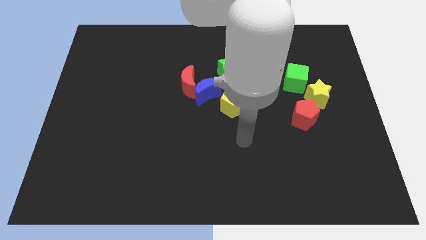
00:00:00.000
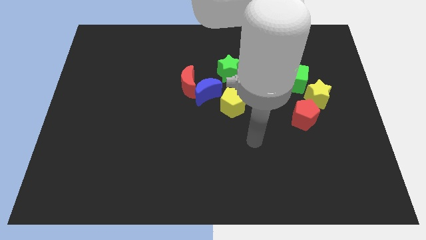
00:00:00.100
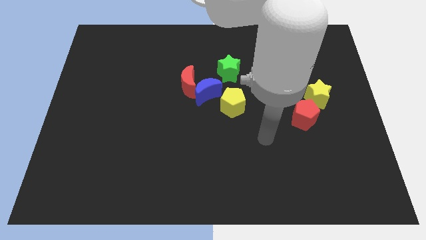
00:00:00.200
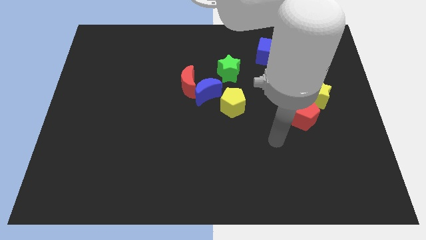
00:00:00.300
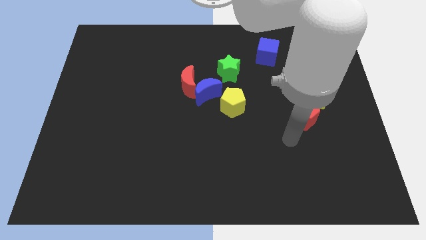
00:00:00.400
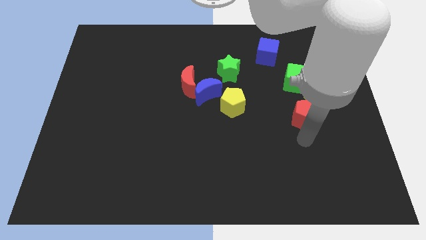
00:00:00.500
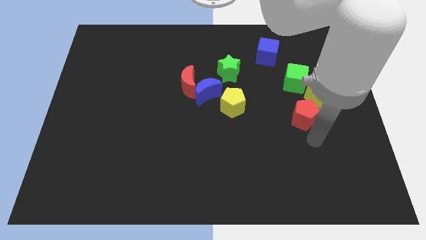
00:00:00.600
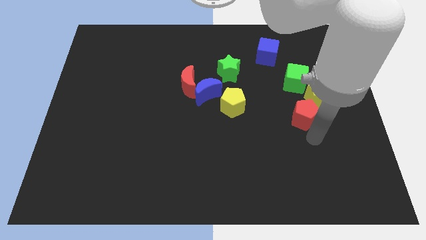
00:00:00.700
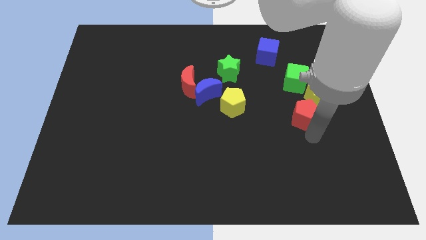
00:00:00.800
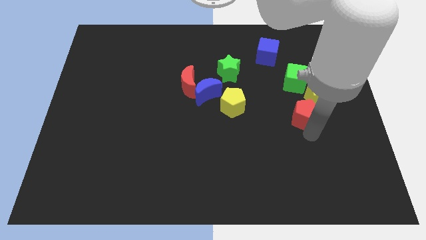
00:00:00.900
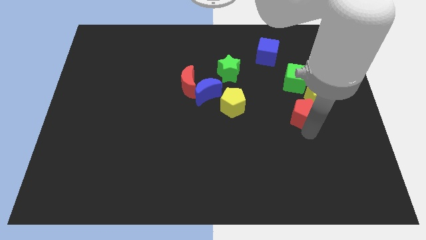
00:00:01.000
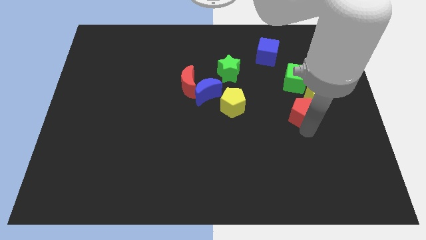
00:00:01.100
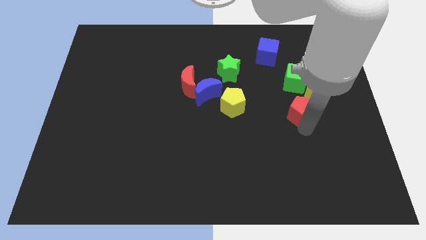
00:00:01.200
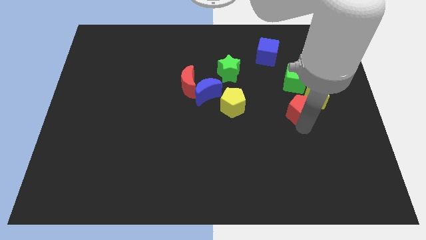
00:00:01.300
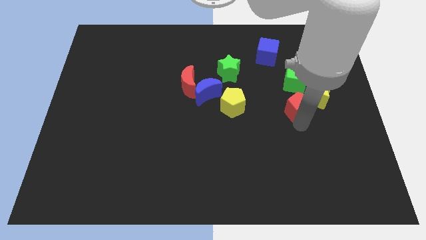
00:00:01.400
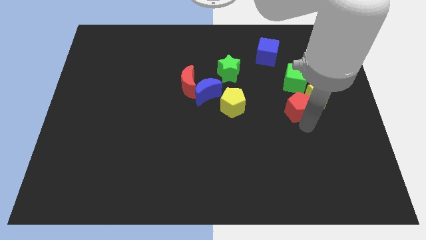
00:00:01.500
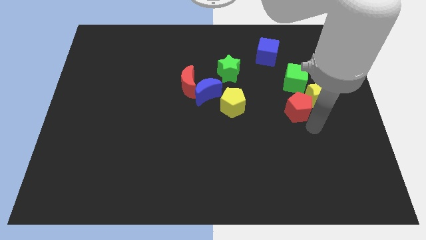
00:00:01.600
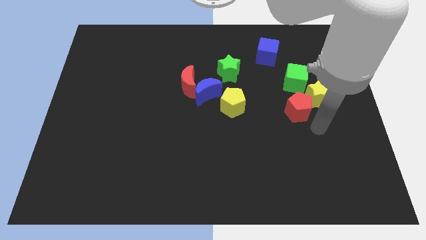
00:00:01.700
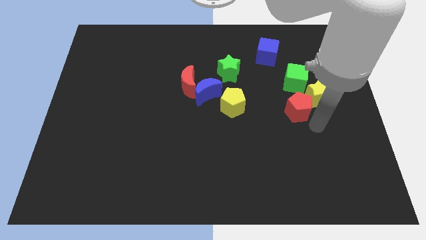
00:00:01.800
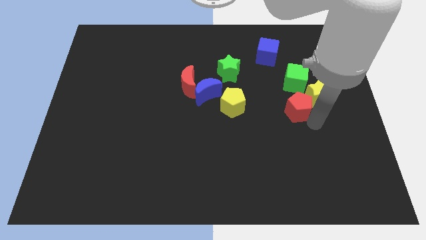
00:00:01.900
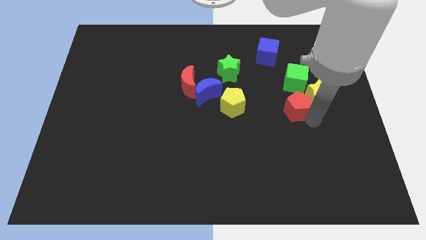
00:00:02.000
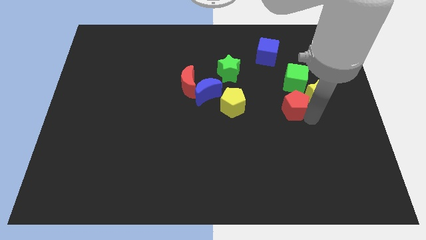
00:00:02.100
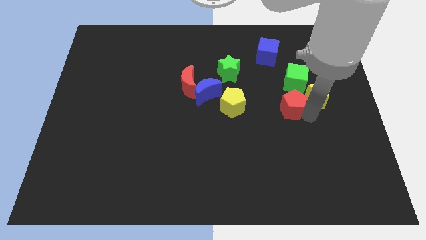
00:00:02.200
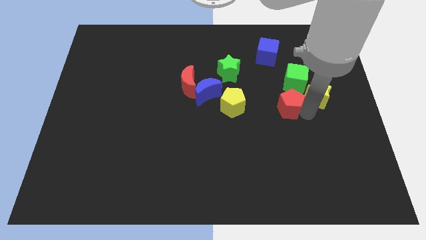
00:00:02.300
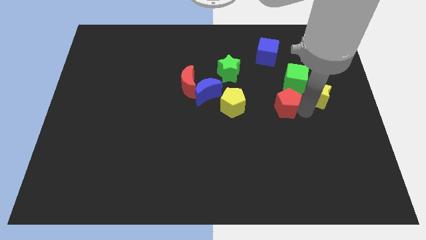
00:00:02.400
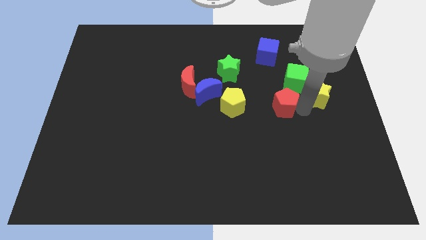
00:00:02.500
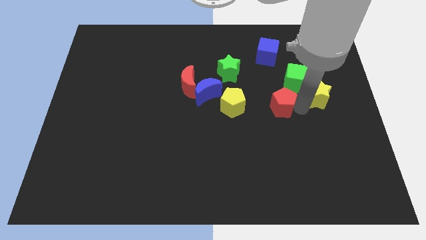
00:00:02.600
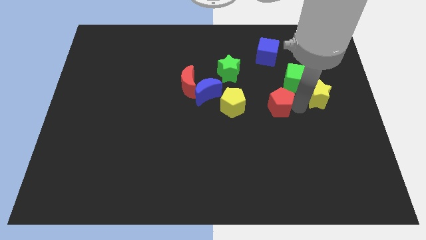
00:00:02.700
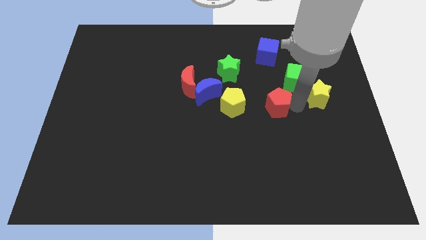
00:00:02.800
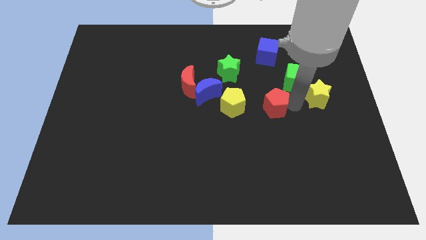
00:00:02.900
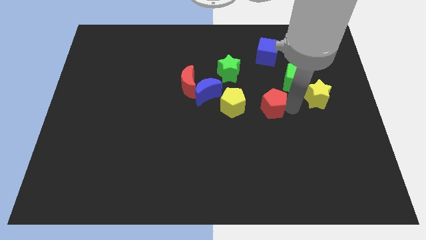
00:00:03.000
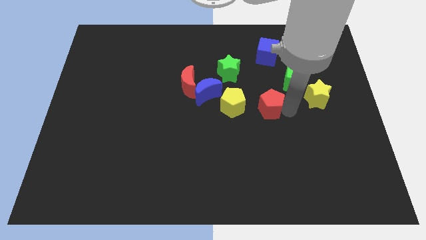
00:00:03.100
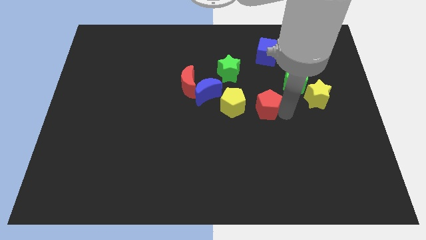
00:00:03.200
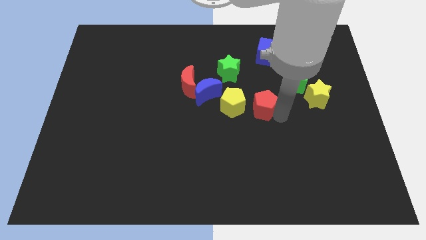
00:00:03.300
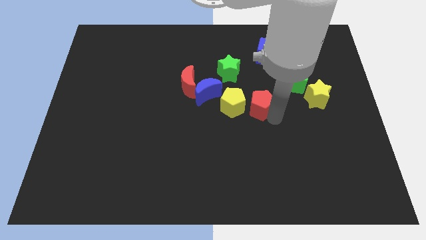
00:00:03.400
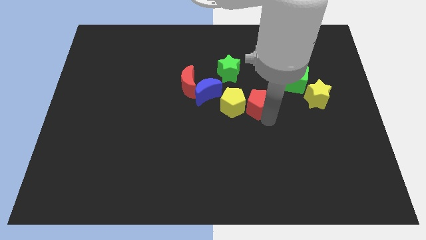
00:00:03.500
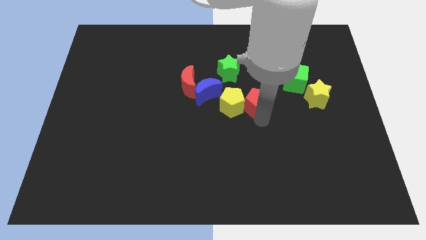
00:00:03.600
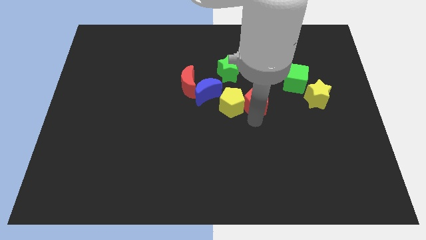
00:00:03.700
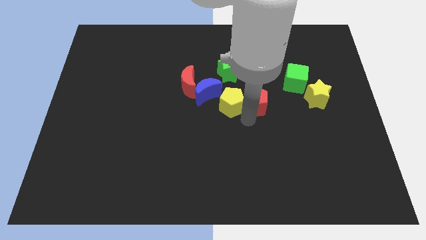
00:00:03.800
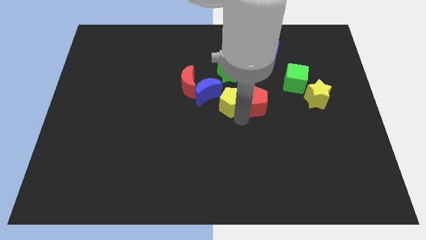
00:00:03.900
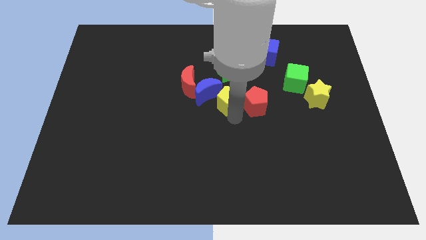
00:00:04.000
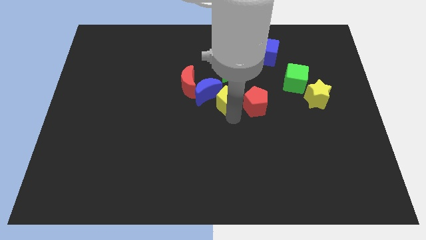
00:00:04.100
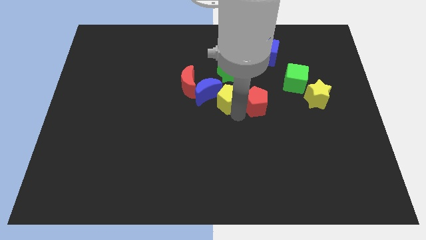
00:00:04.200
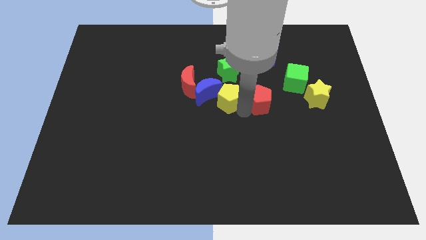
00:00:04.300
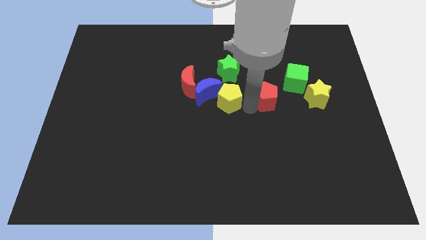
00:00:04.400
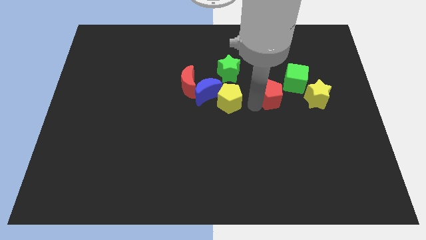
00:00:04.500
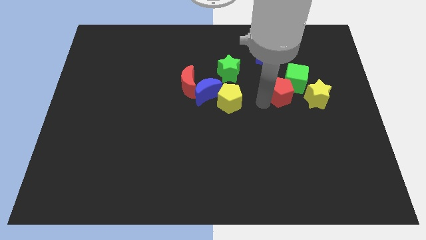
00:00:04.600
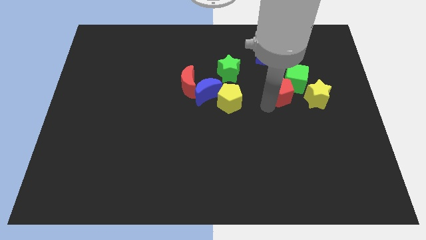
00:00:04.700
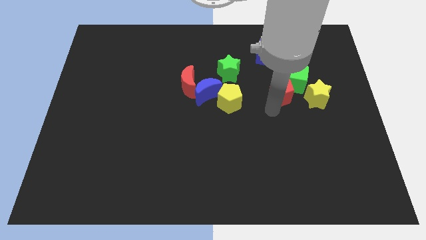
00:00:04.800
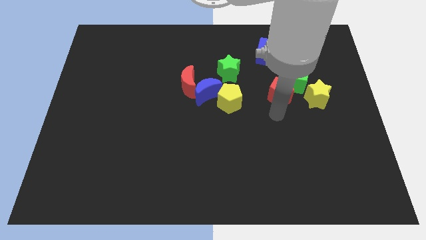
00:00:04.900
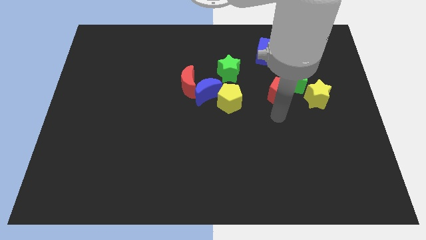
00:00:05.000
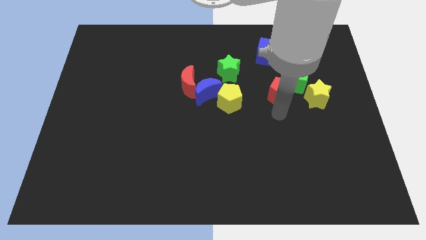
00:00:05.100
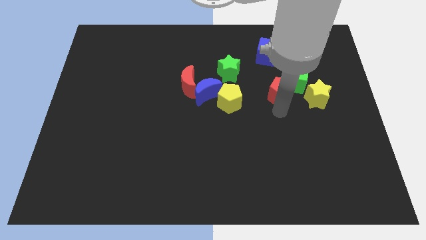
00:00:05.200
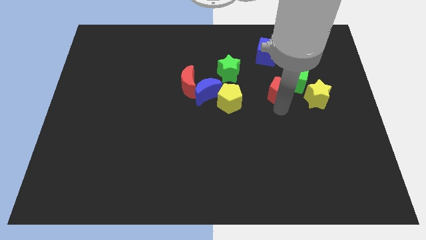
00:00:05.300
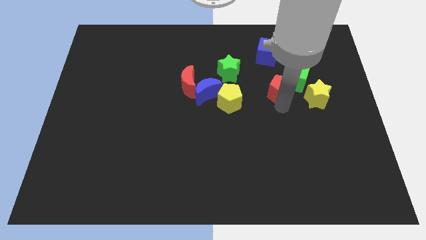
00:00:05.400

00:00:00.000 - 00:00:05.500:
slide the red pentagon up a bit

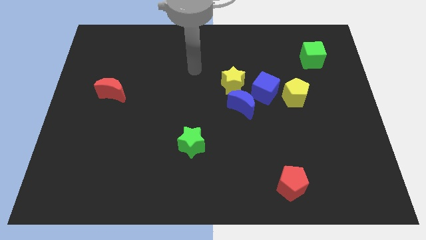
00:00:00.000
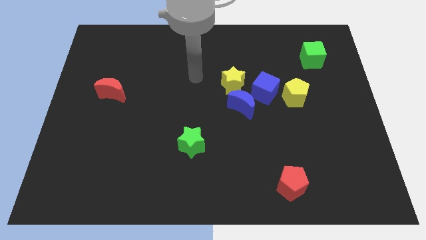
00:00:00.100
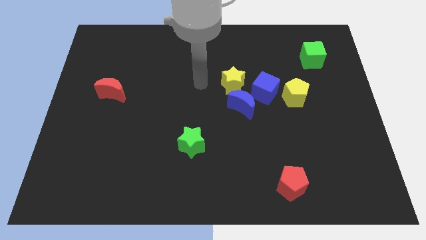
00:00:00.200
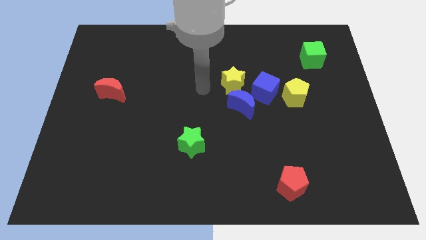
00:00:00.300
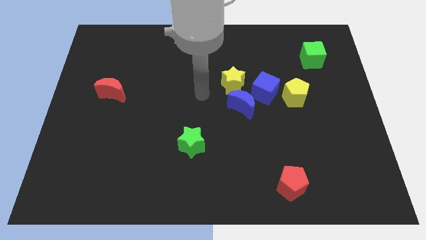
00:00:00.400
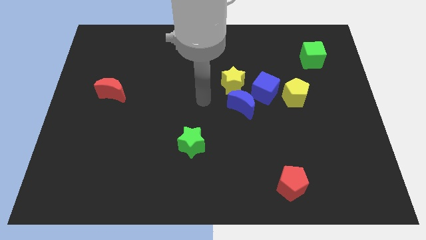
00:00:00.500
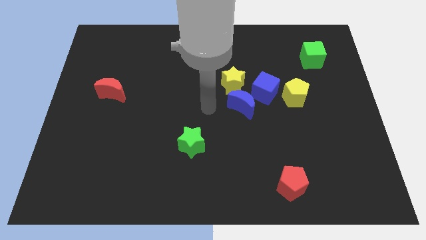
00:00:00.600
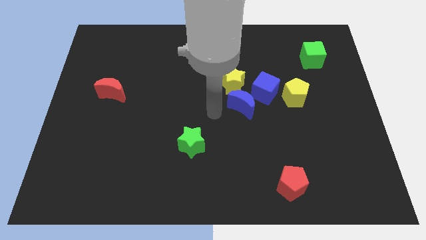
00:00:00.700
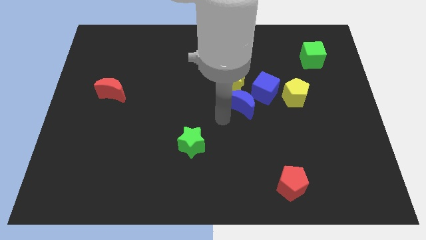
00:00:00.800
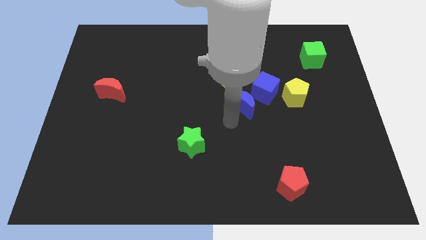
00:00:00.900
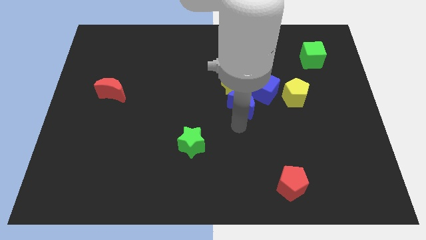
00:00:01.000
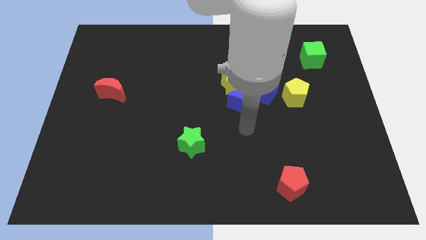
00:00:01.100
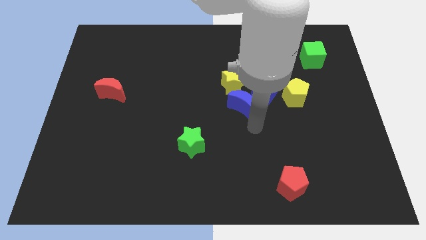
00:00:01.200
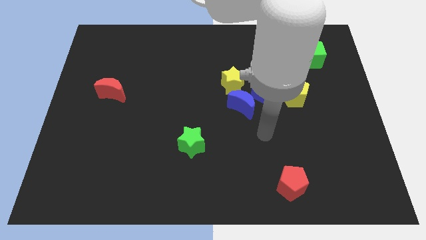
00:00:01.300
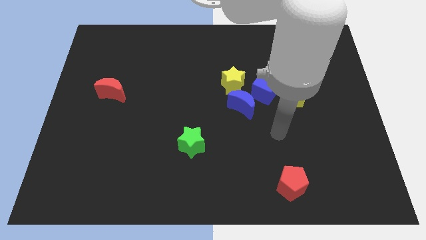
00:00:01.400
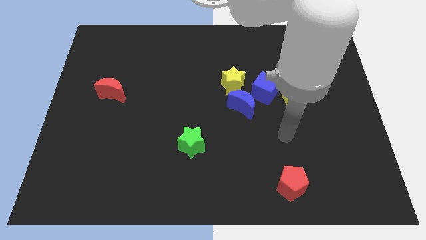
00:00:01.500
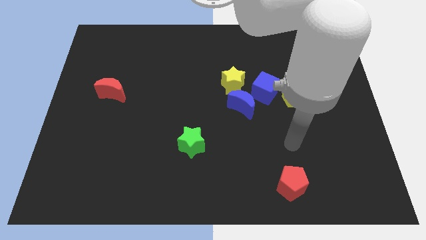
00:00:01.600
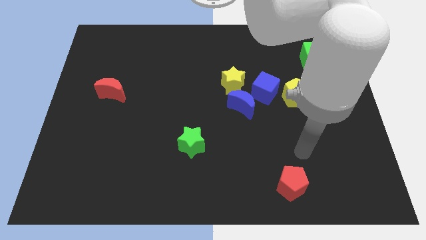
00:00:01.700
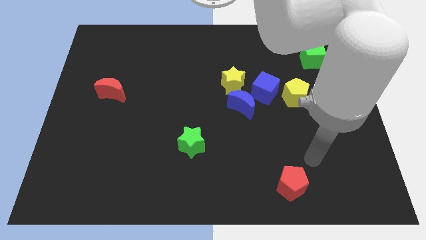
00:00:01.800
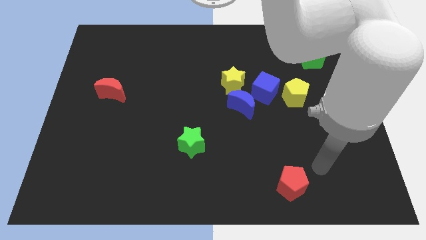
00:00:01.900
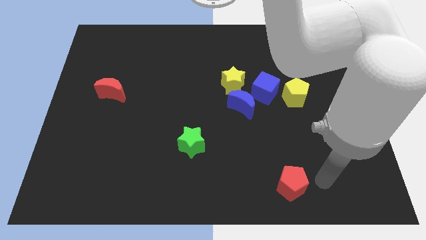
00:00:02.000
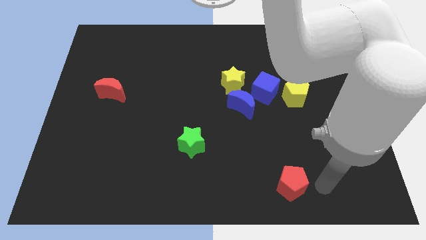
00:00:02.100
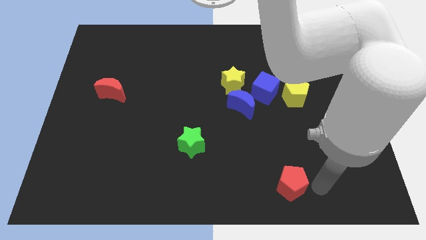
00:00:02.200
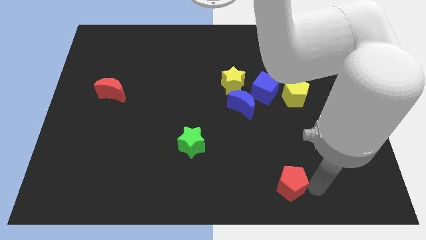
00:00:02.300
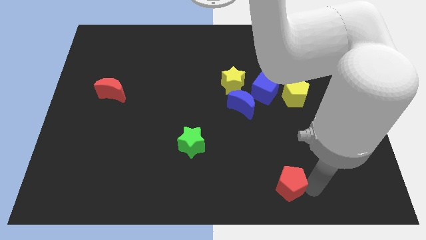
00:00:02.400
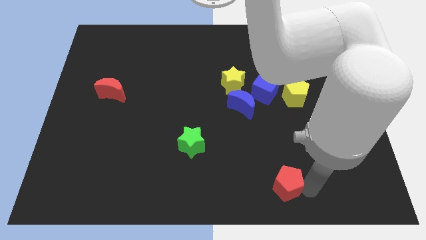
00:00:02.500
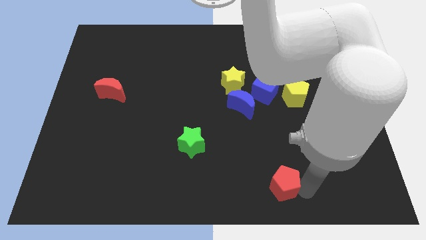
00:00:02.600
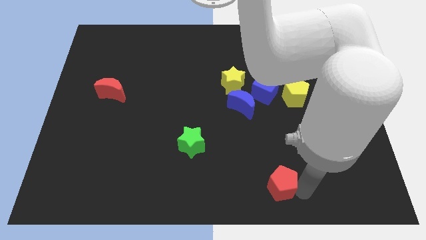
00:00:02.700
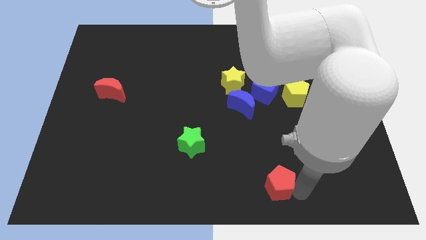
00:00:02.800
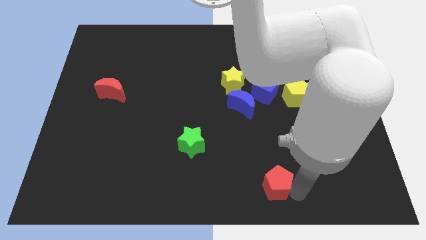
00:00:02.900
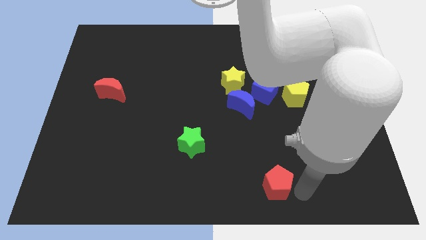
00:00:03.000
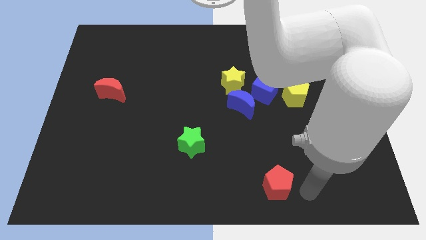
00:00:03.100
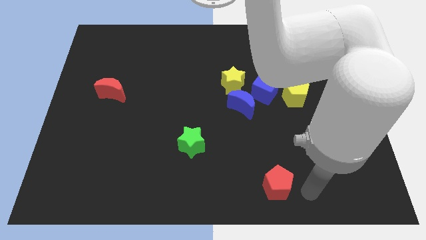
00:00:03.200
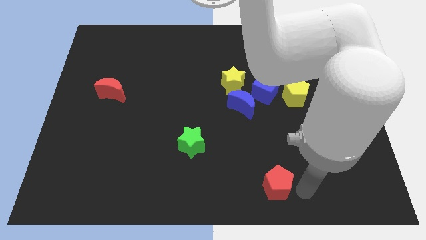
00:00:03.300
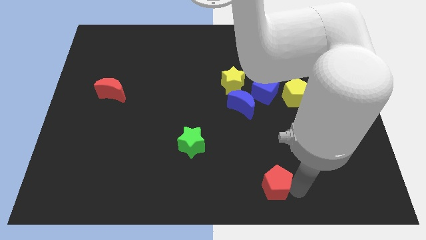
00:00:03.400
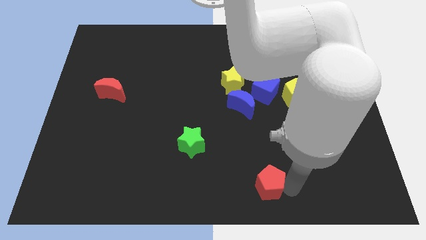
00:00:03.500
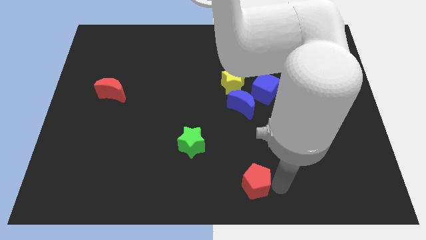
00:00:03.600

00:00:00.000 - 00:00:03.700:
slightly slide the red pentagon left
